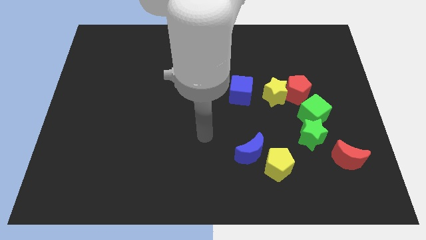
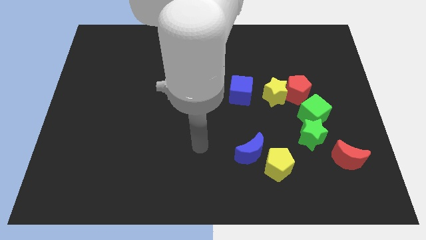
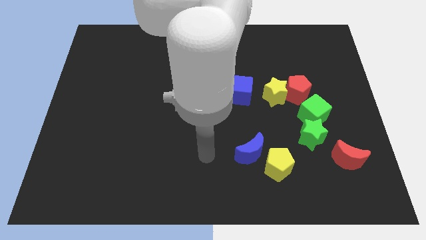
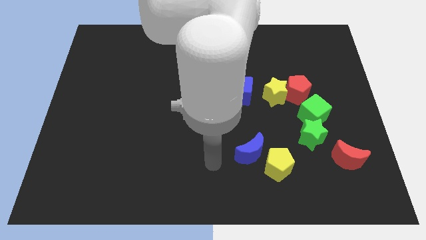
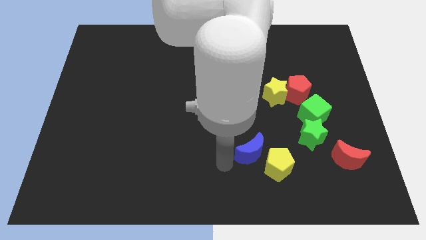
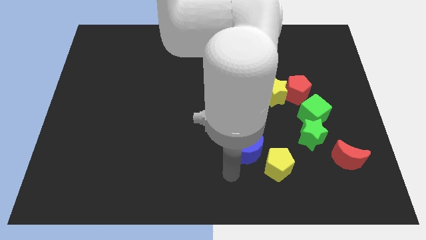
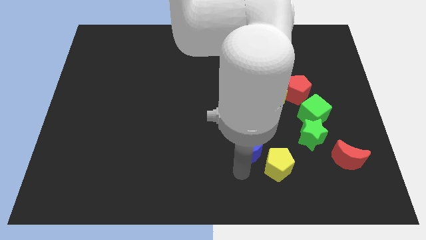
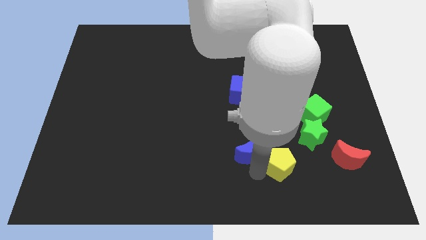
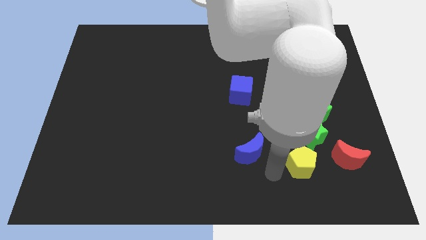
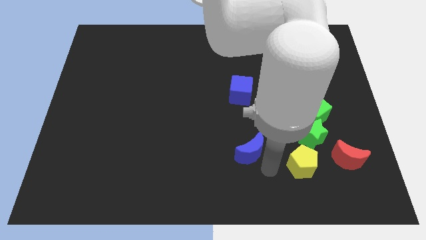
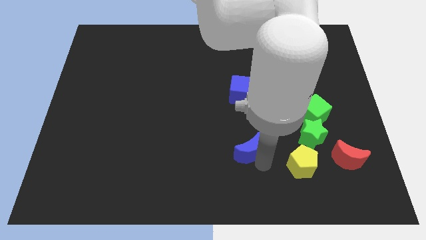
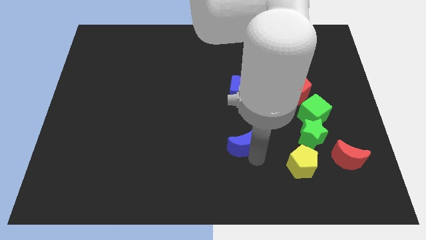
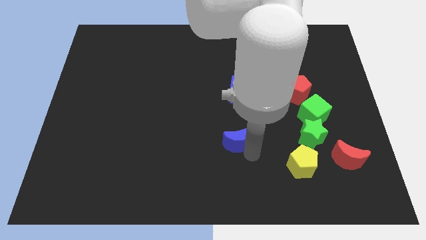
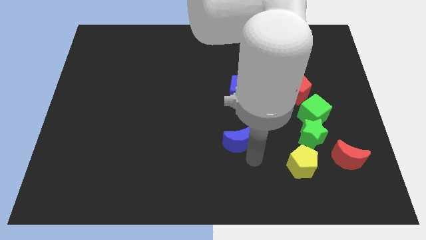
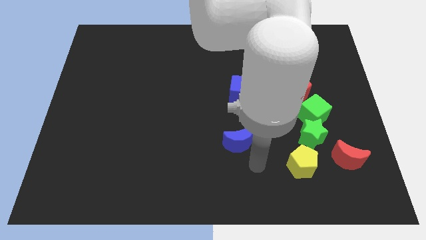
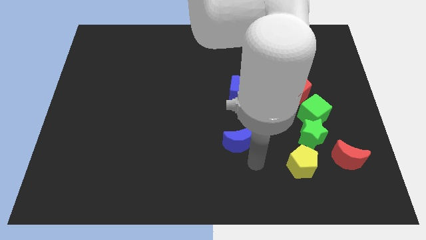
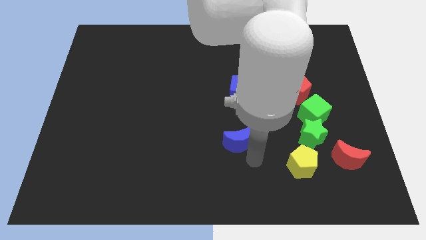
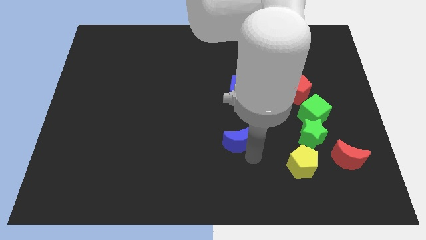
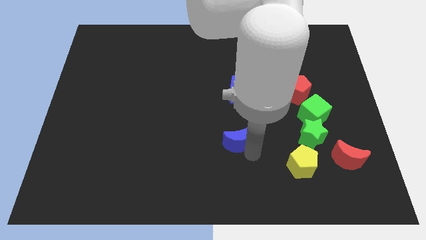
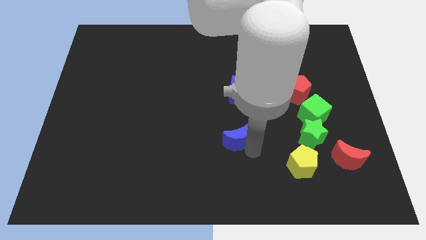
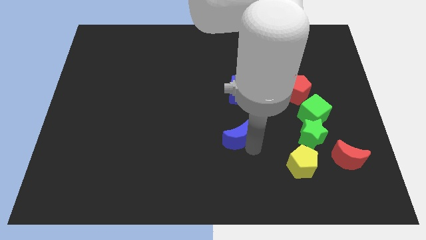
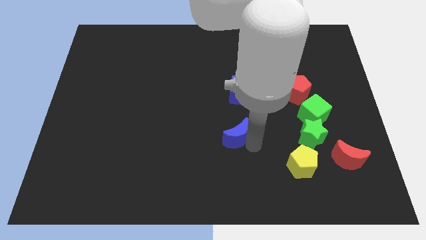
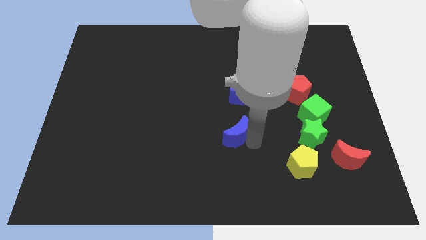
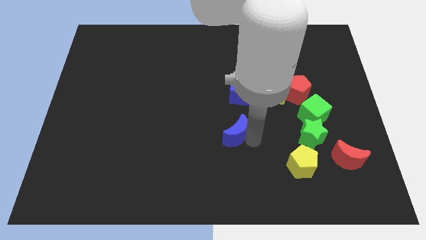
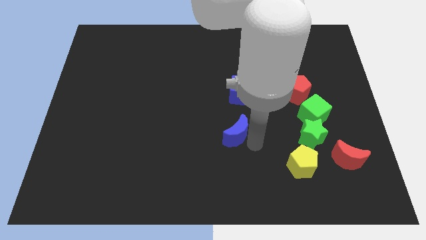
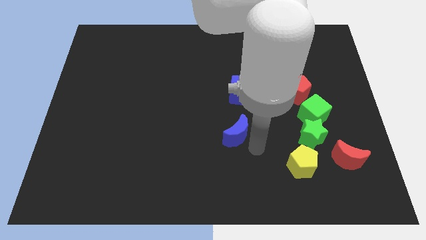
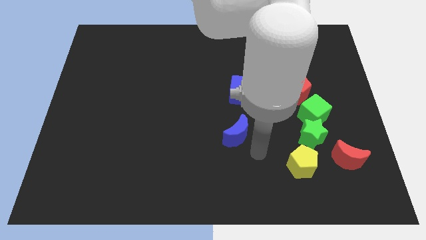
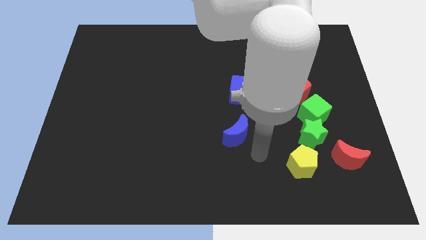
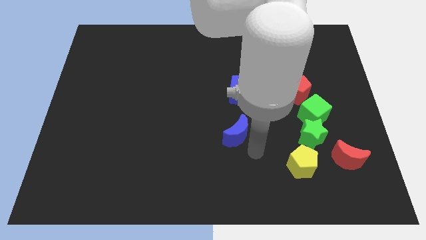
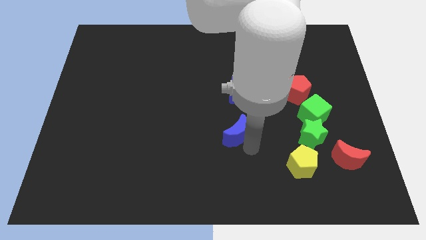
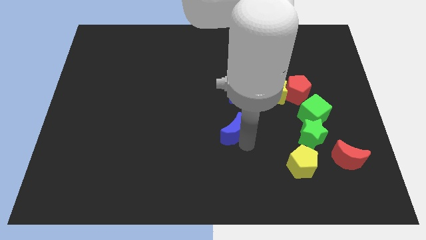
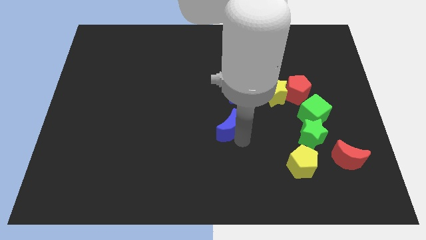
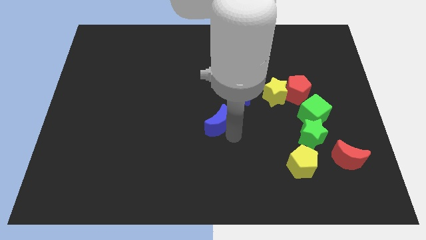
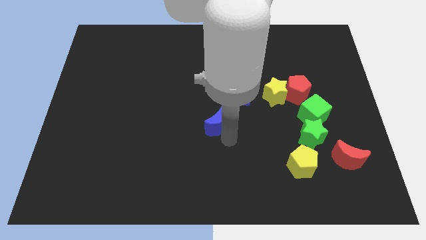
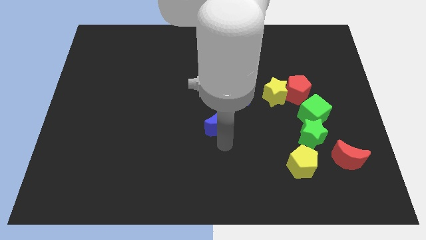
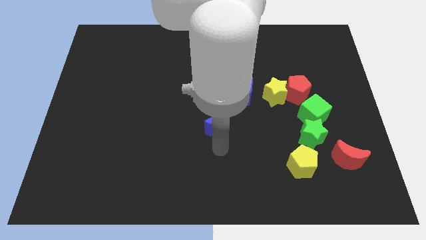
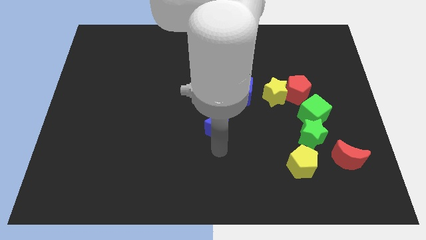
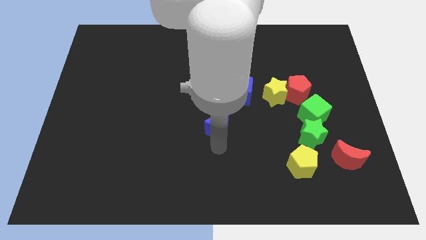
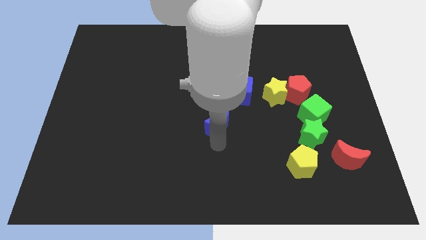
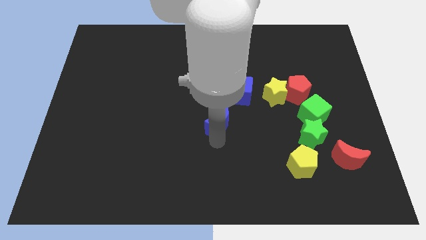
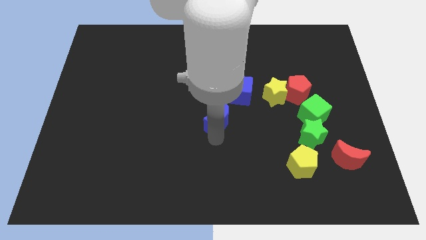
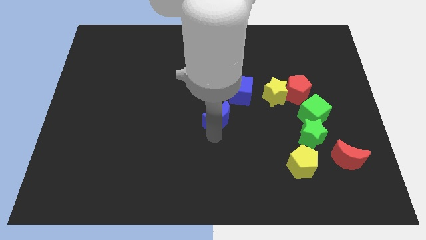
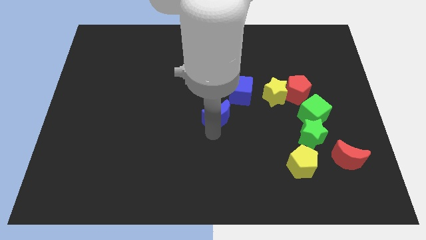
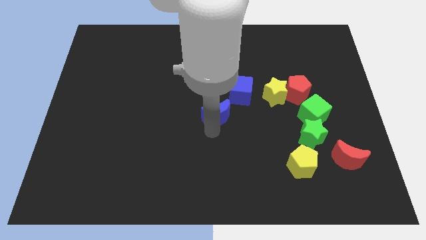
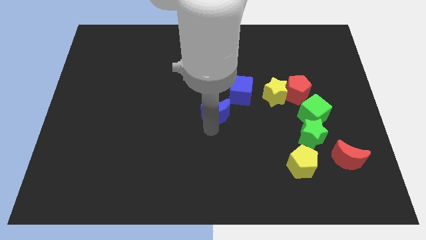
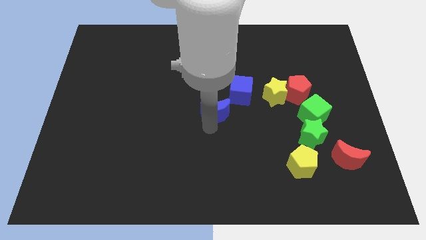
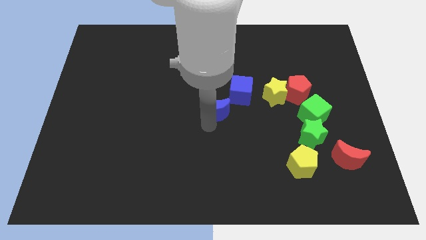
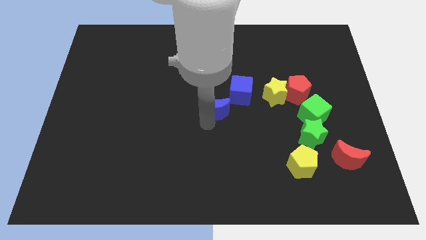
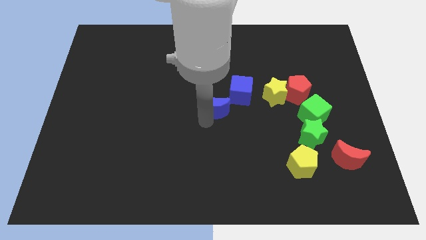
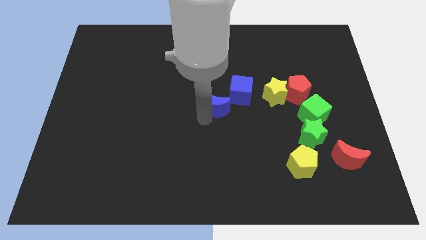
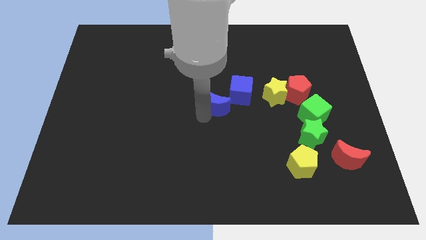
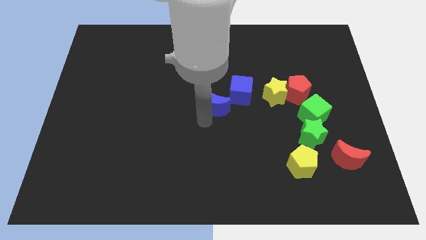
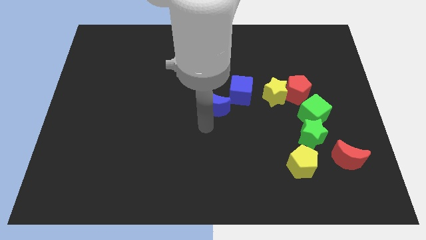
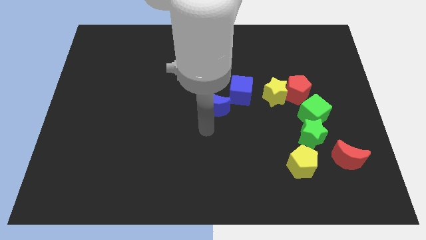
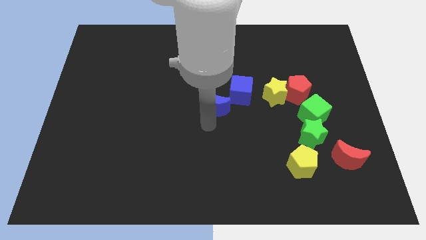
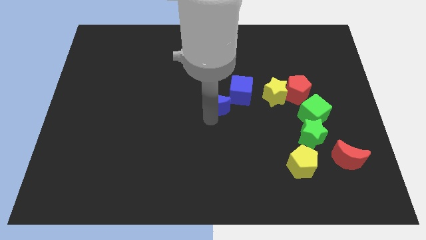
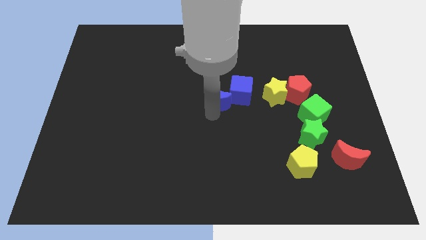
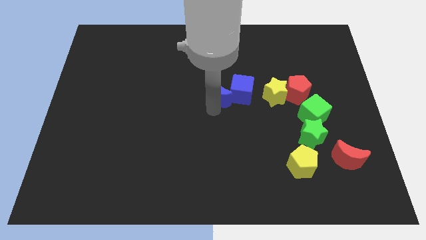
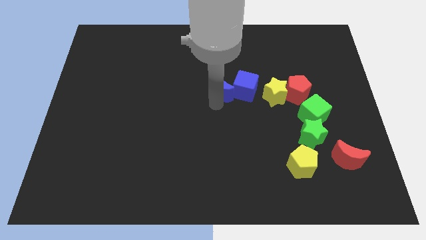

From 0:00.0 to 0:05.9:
slide the blue moon to the top left side of the blue cube
